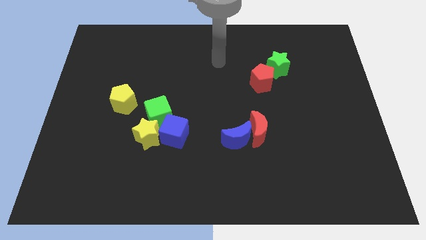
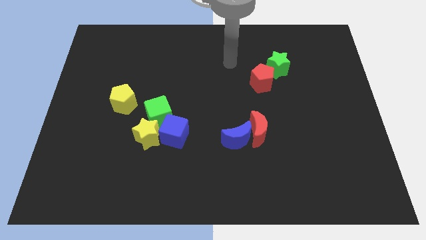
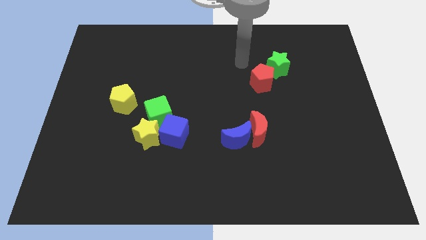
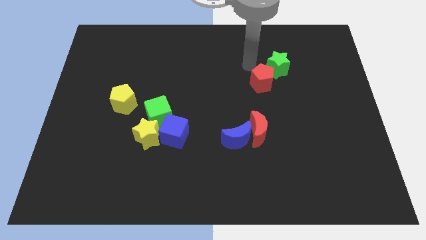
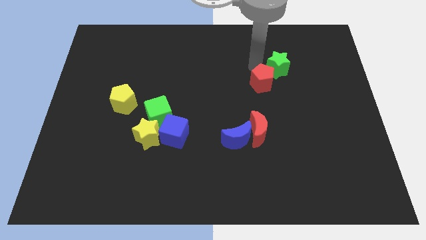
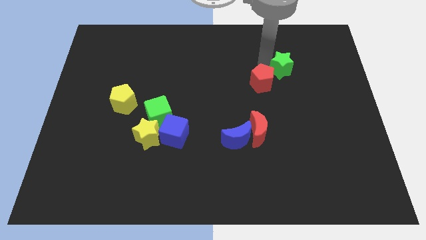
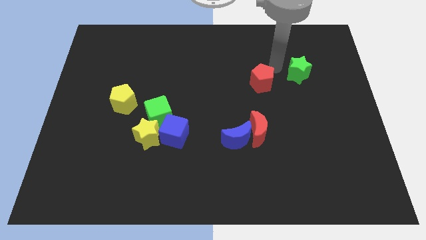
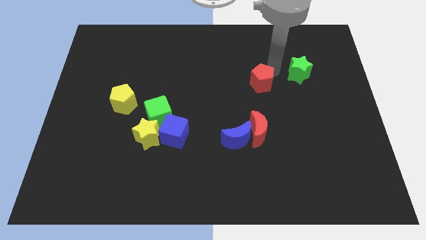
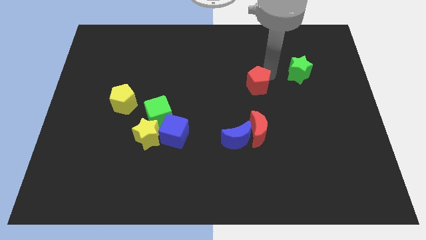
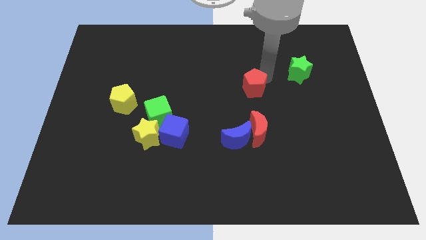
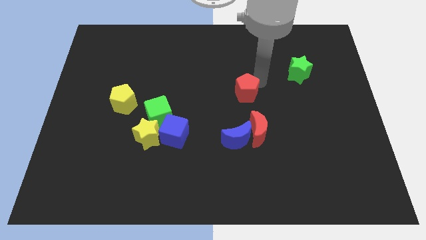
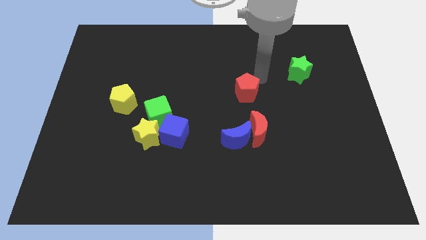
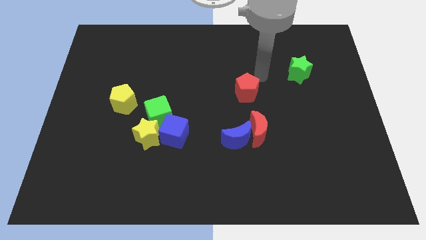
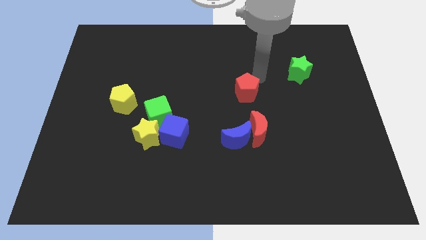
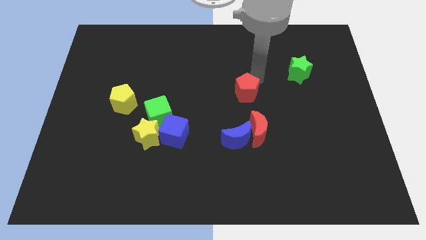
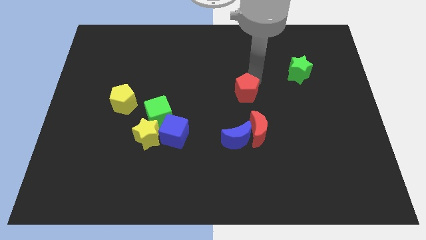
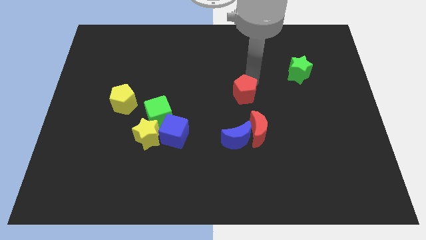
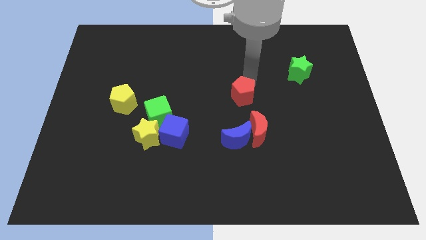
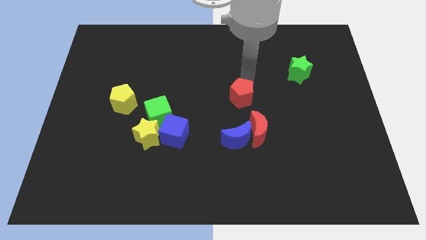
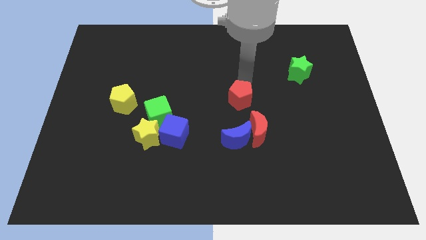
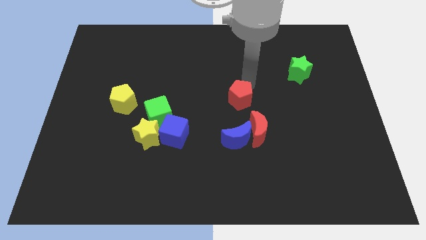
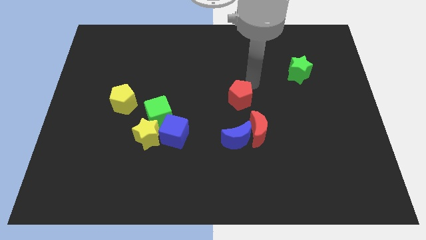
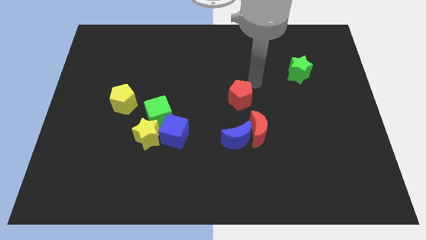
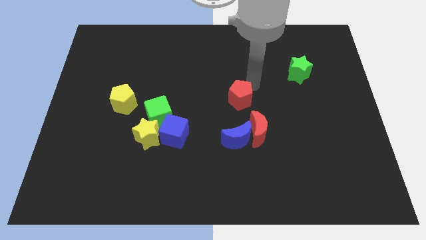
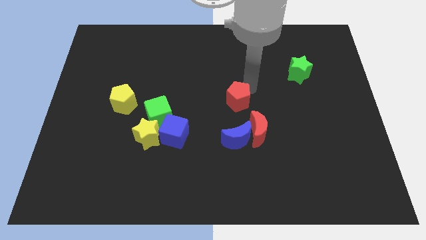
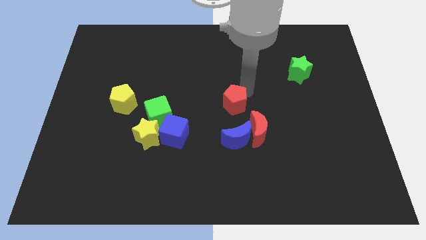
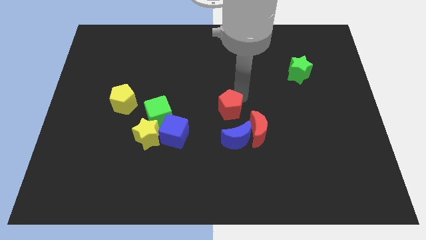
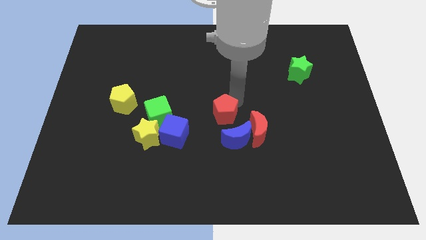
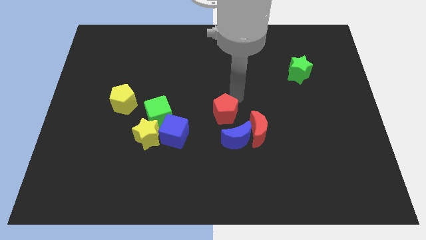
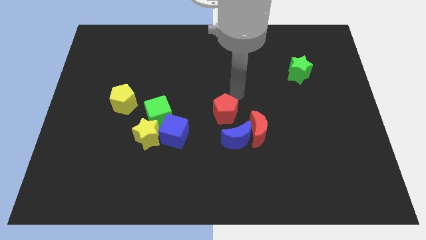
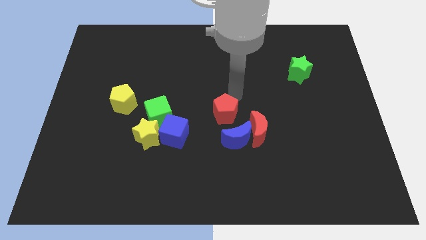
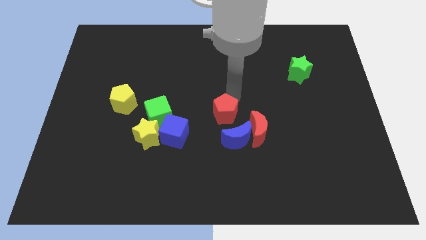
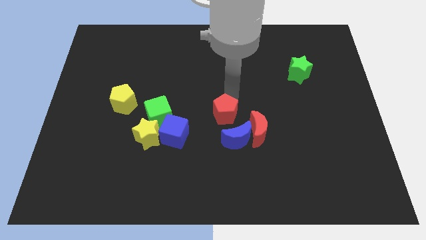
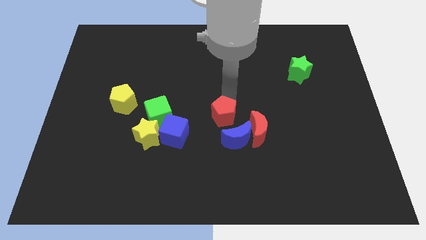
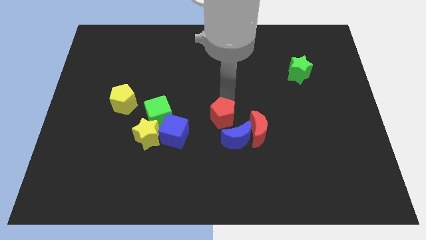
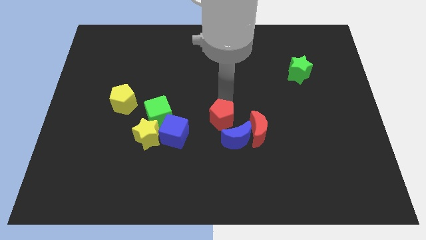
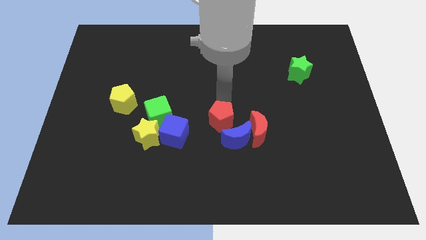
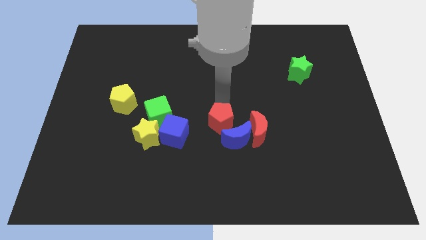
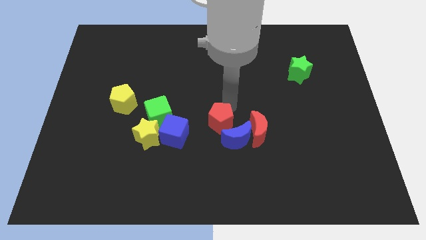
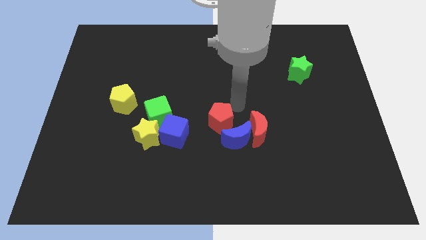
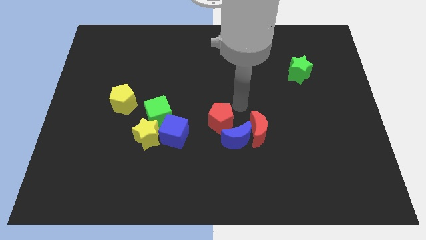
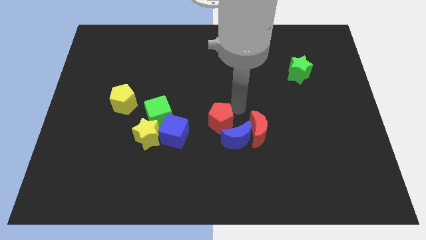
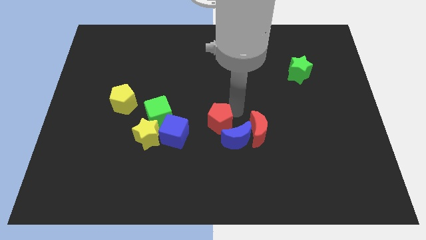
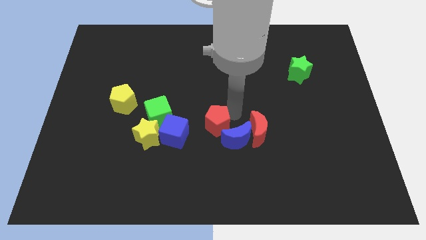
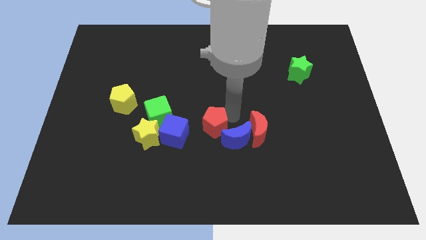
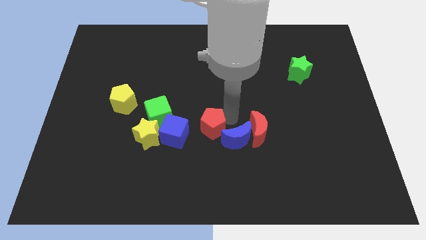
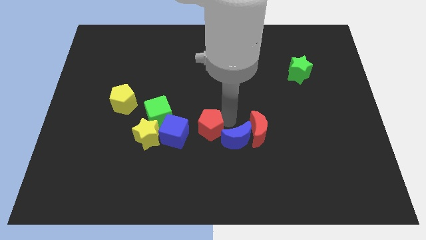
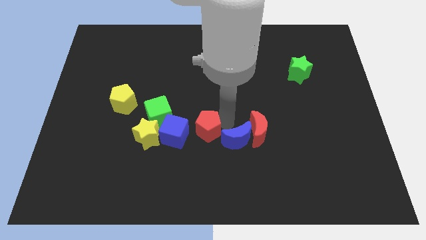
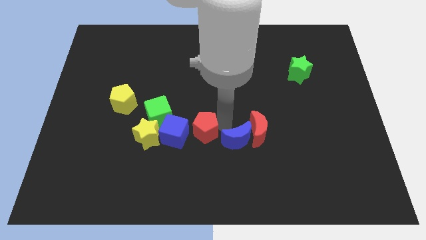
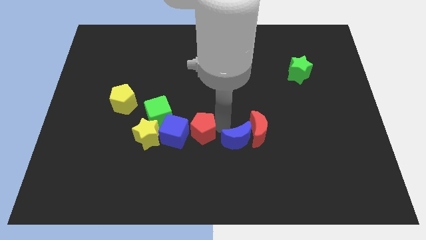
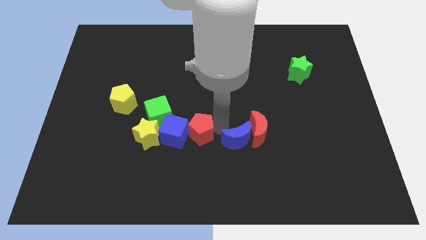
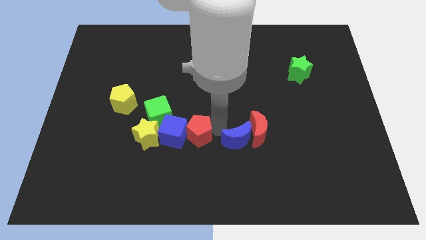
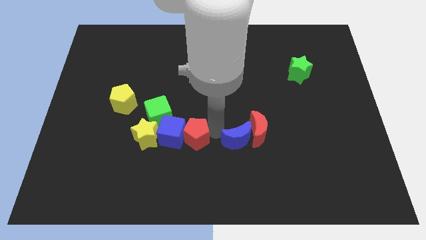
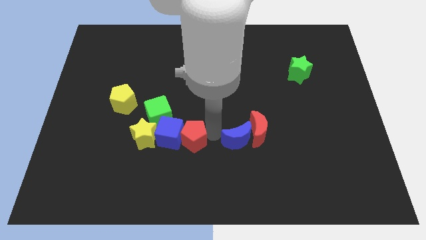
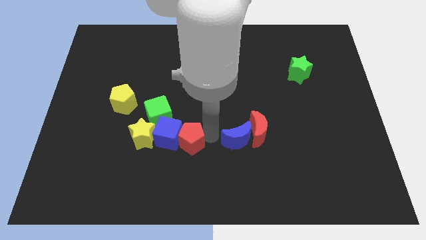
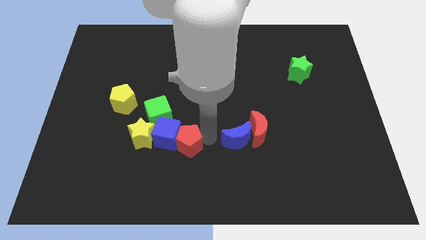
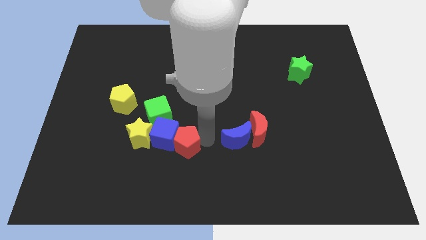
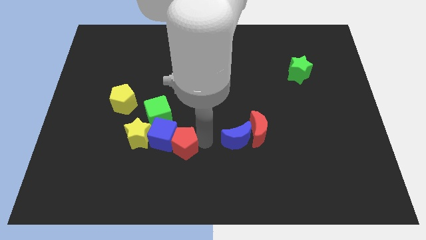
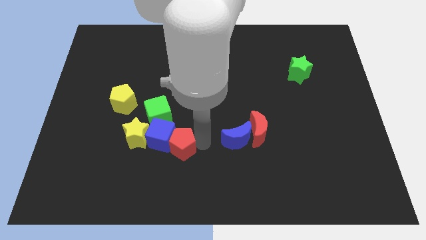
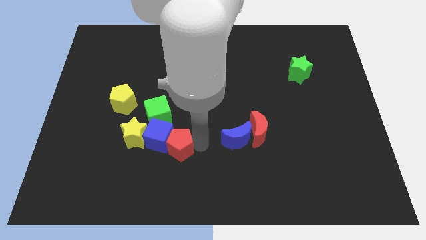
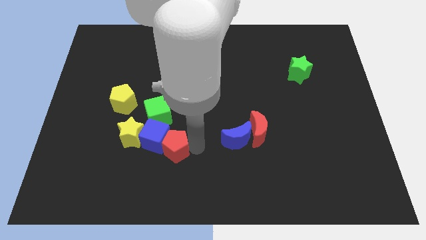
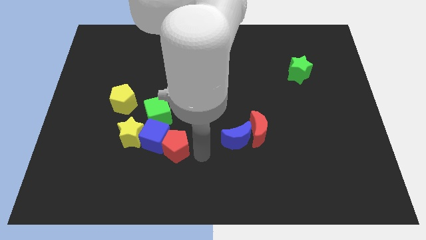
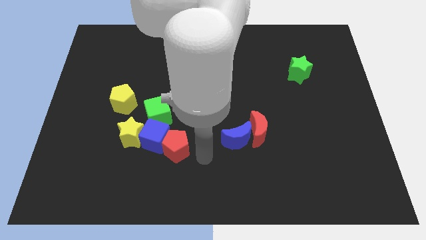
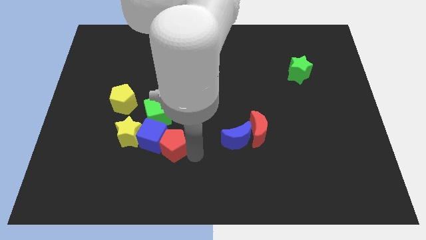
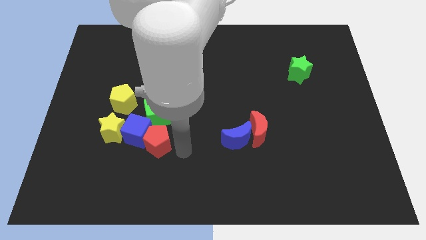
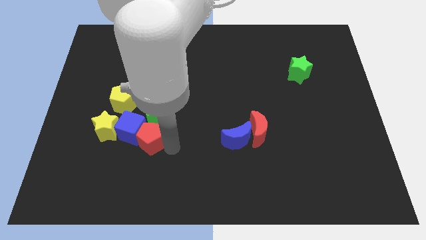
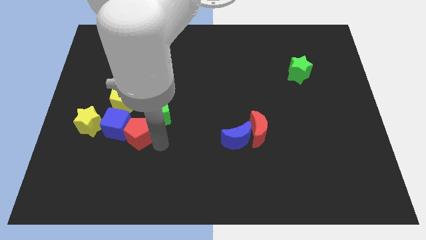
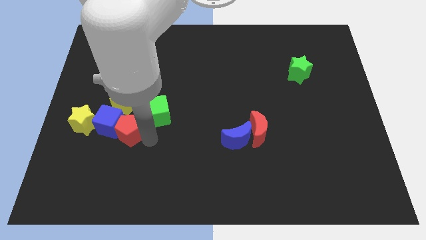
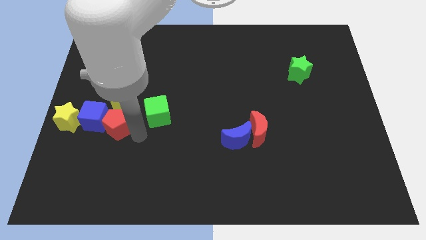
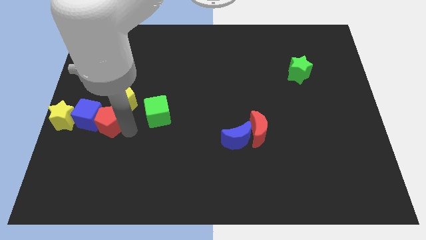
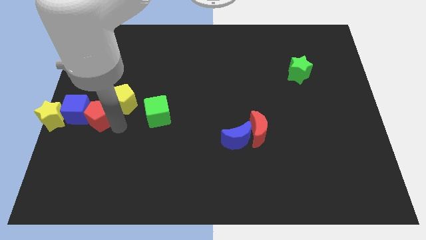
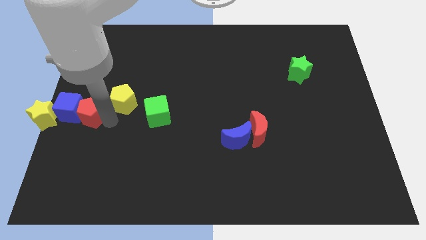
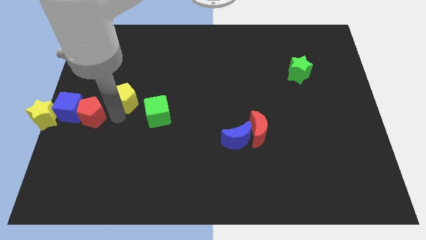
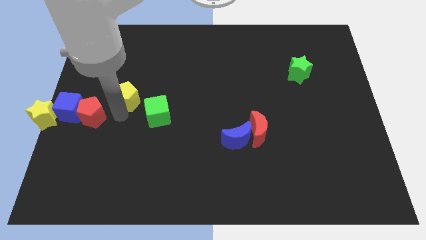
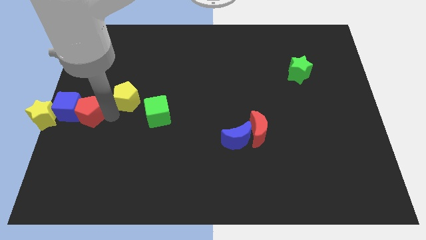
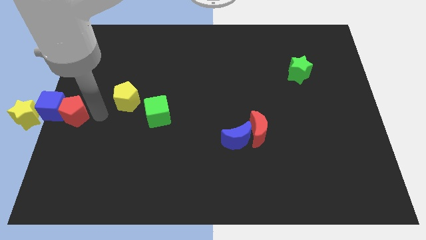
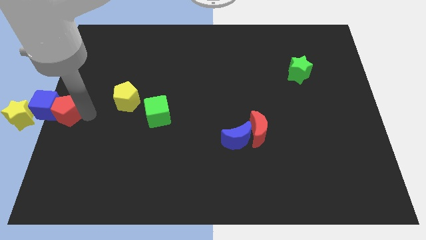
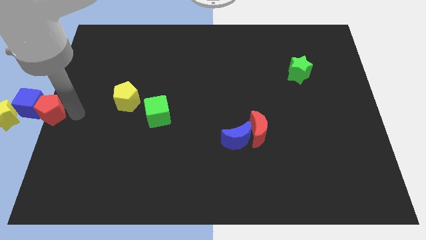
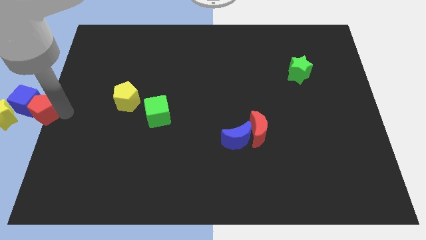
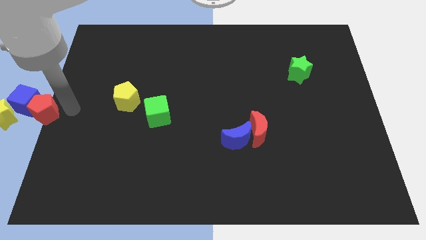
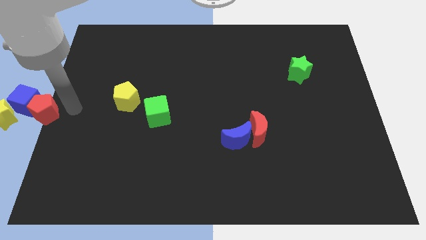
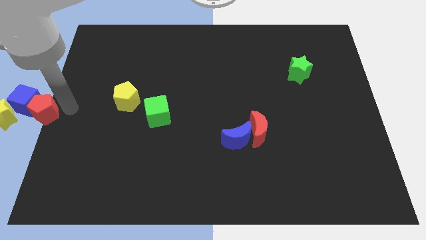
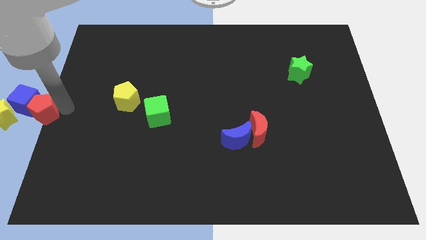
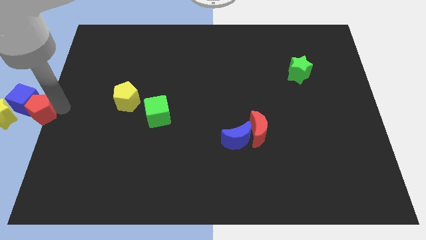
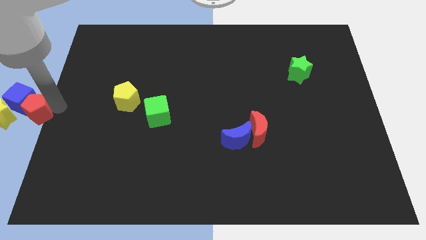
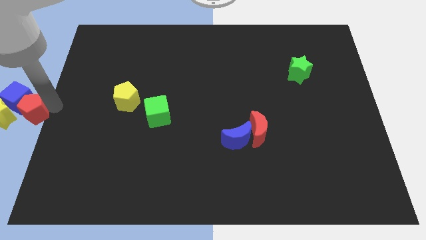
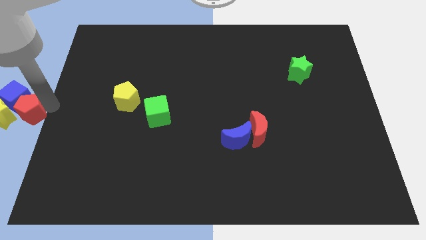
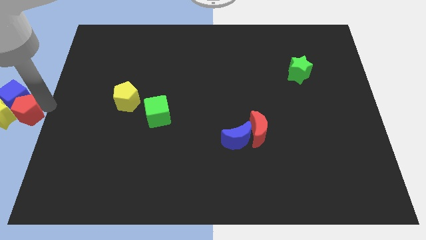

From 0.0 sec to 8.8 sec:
move the red pentagon next to the yellow star
